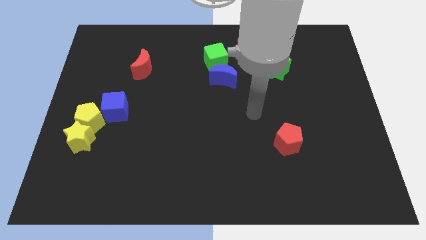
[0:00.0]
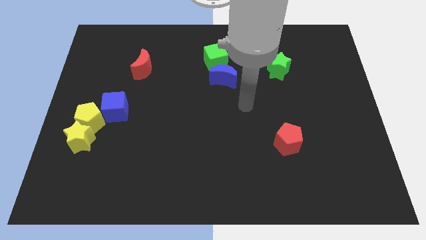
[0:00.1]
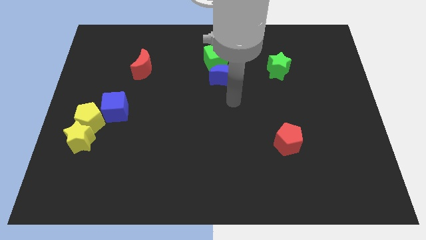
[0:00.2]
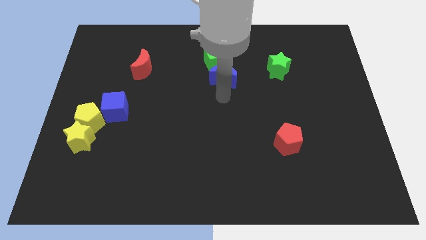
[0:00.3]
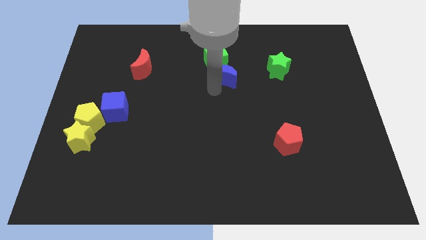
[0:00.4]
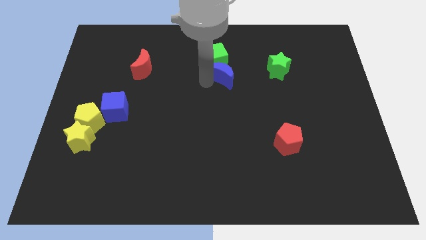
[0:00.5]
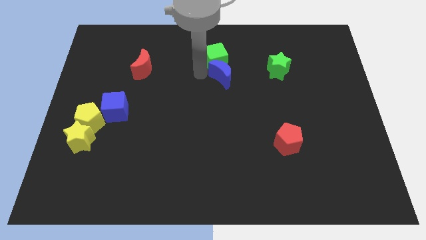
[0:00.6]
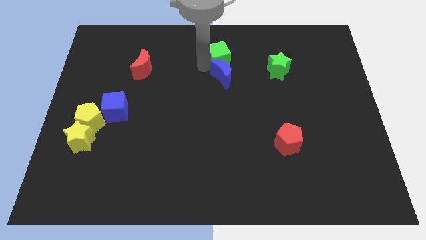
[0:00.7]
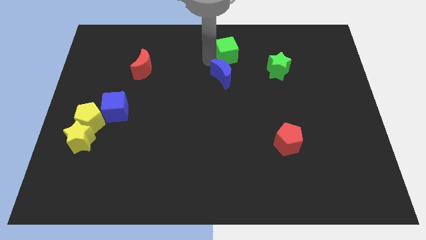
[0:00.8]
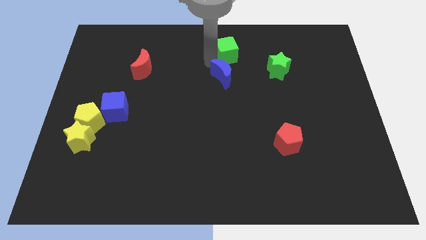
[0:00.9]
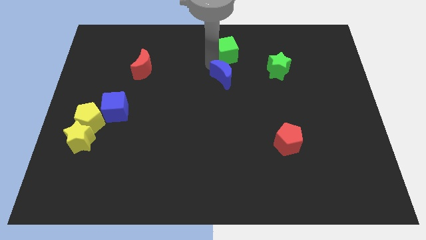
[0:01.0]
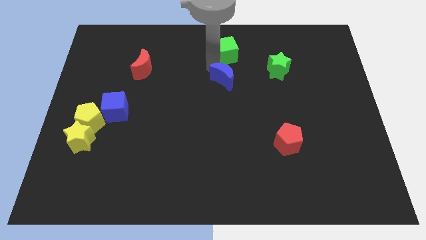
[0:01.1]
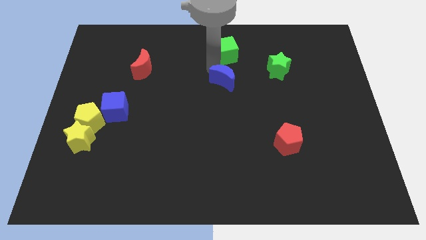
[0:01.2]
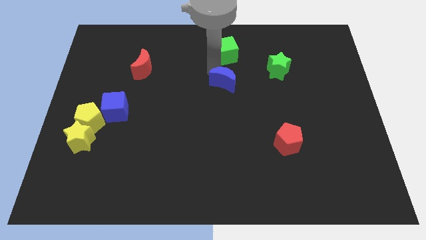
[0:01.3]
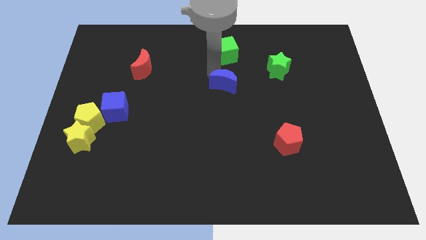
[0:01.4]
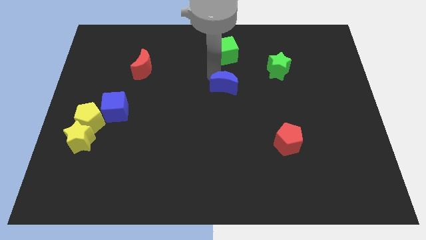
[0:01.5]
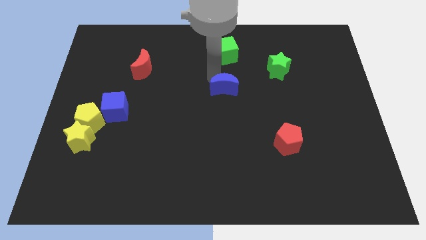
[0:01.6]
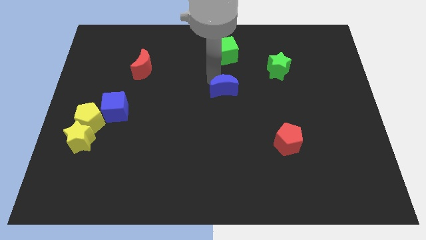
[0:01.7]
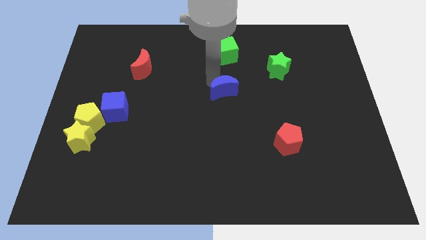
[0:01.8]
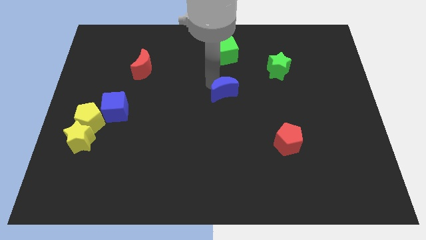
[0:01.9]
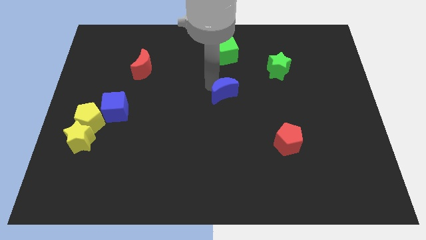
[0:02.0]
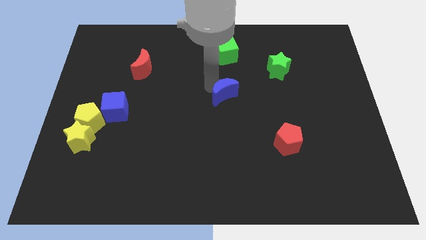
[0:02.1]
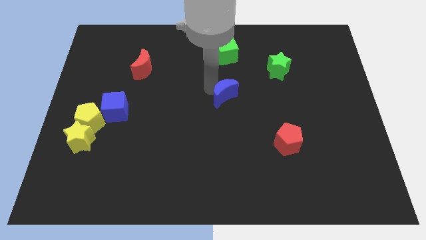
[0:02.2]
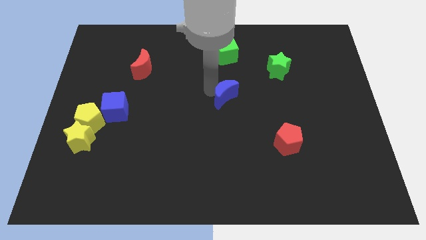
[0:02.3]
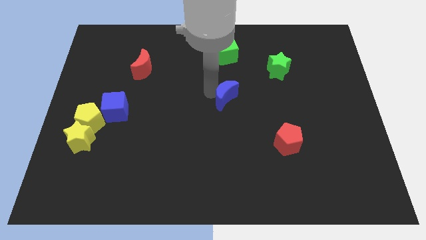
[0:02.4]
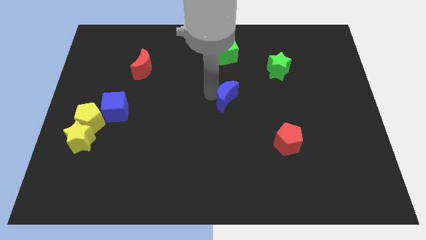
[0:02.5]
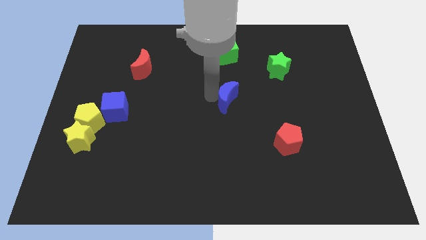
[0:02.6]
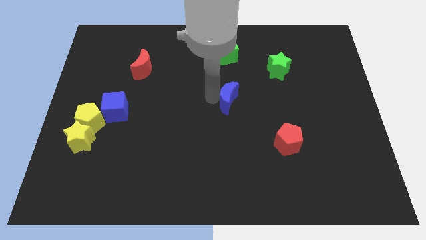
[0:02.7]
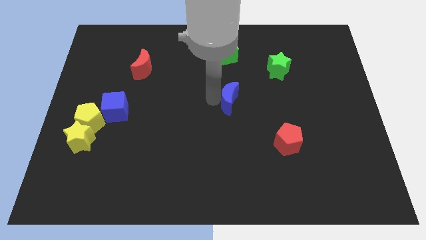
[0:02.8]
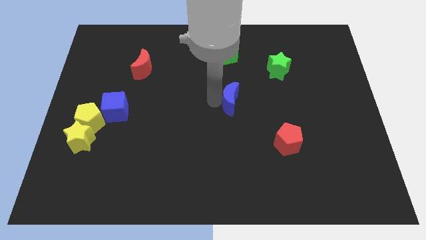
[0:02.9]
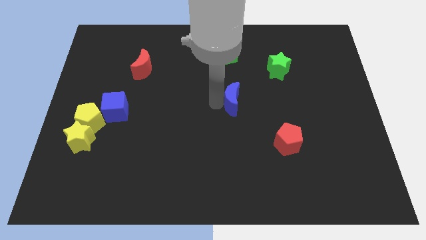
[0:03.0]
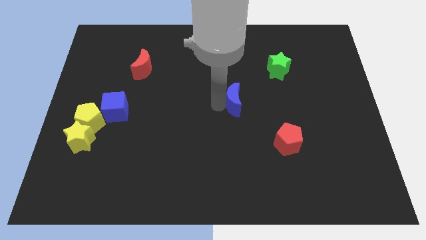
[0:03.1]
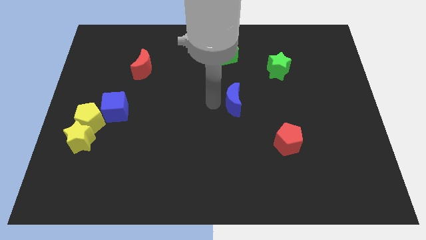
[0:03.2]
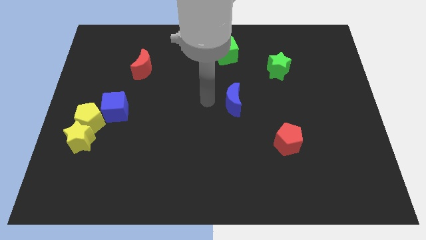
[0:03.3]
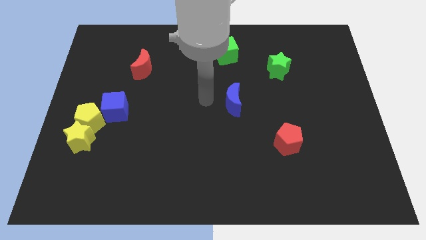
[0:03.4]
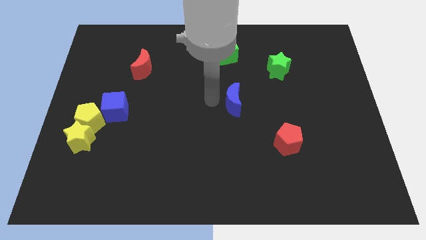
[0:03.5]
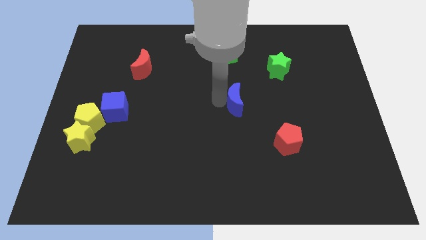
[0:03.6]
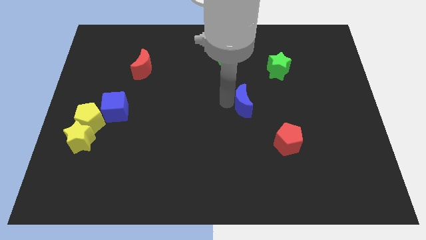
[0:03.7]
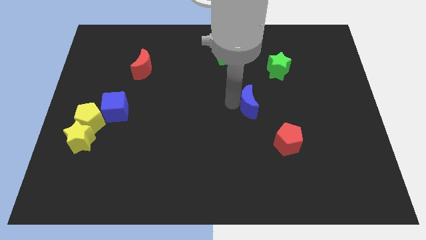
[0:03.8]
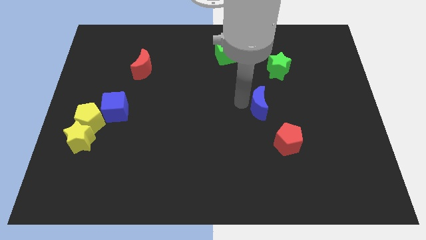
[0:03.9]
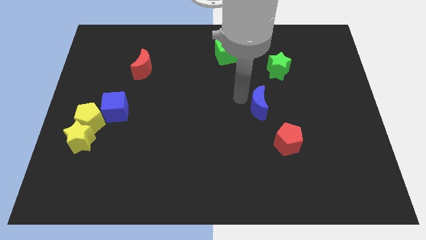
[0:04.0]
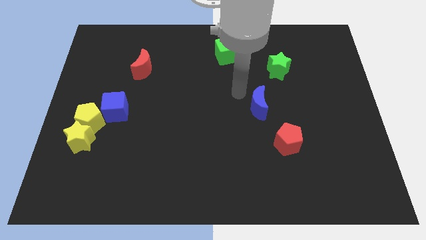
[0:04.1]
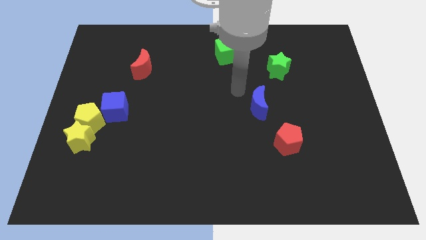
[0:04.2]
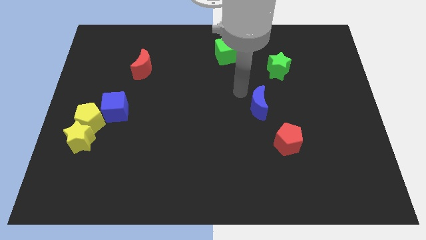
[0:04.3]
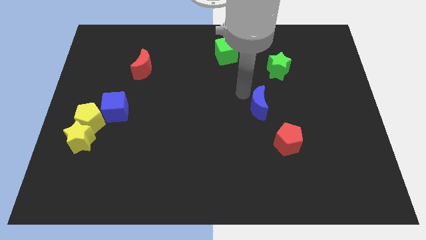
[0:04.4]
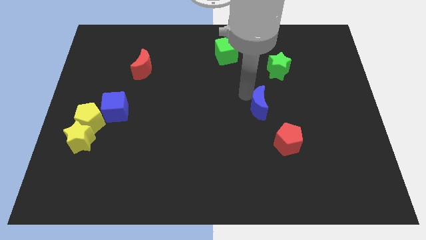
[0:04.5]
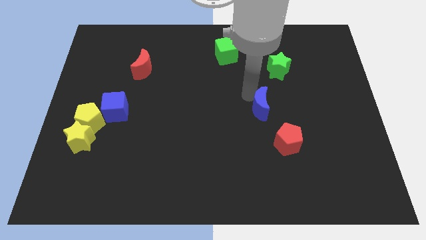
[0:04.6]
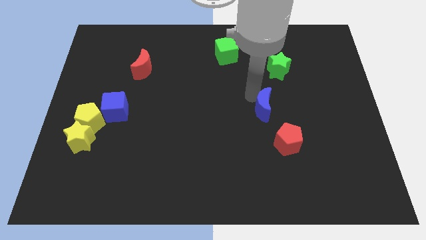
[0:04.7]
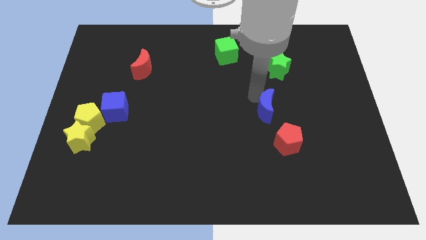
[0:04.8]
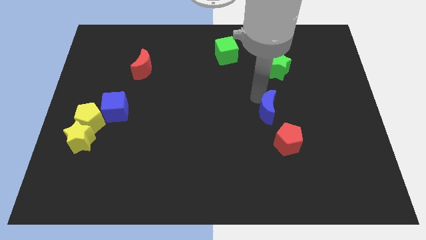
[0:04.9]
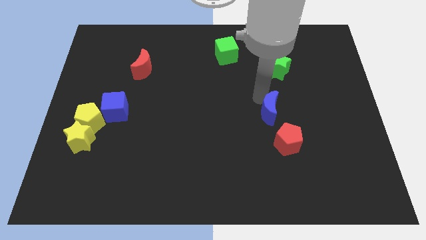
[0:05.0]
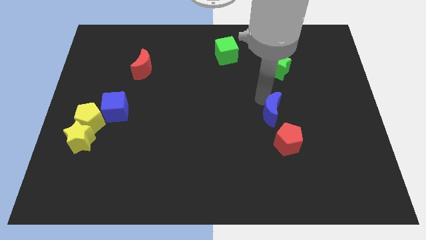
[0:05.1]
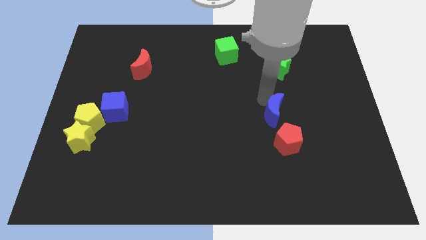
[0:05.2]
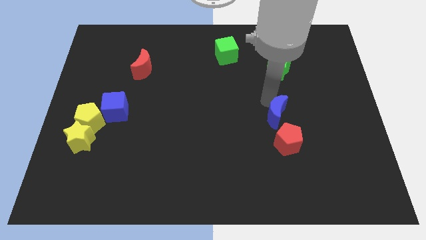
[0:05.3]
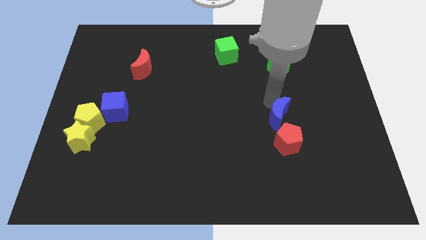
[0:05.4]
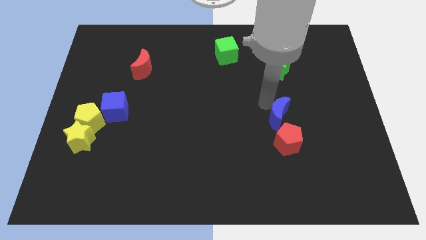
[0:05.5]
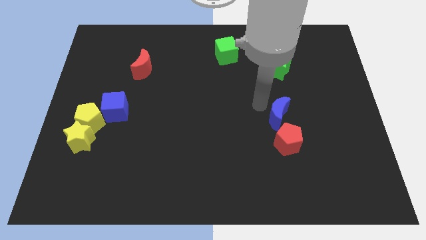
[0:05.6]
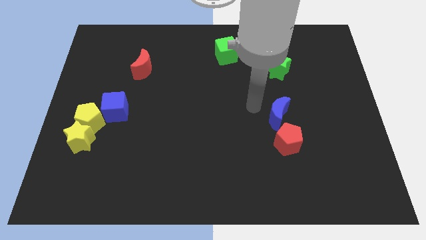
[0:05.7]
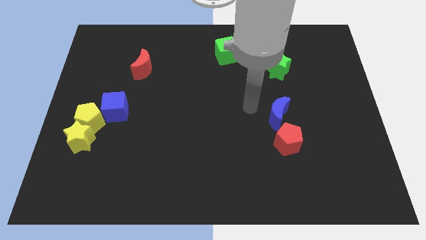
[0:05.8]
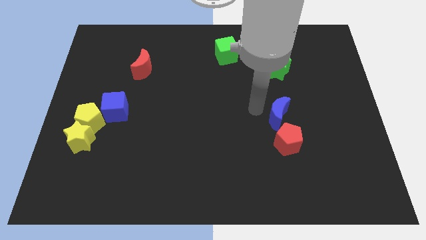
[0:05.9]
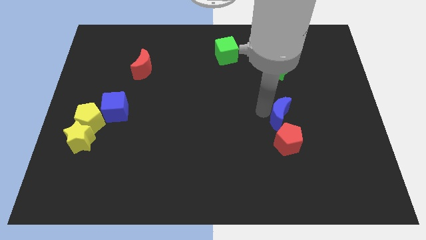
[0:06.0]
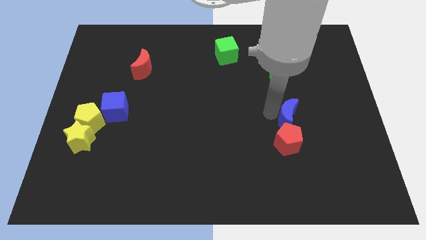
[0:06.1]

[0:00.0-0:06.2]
slide the blue moon diagonally up and to the right of the red pentagon
